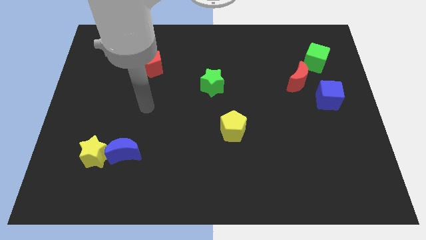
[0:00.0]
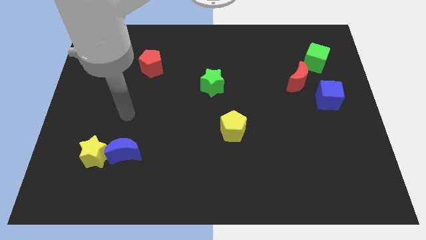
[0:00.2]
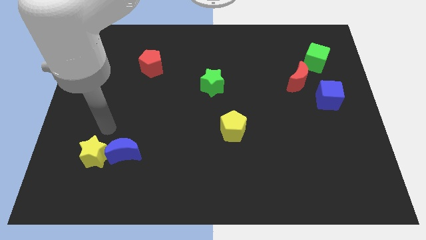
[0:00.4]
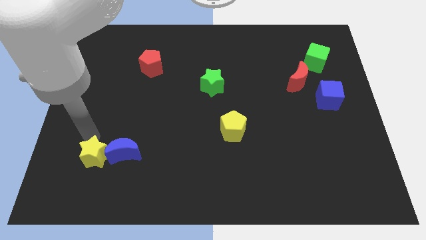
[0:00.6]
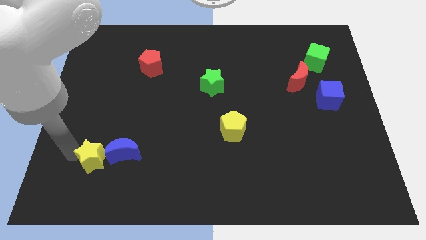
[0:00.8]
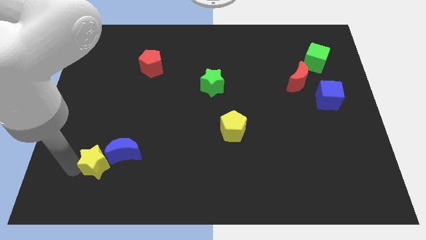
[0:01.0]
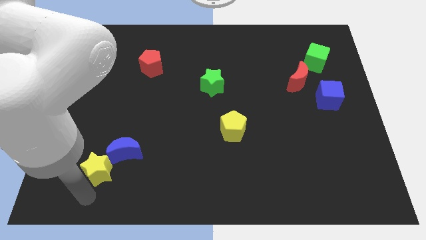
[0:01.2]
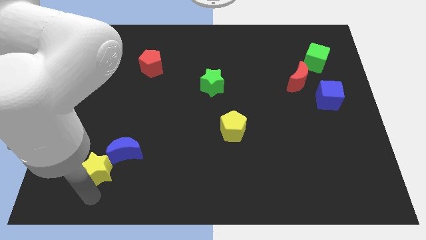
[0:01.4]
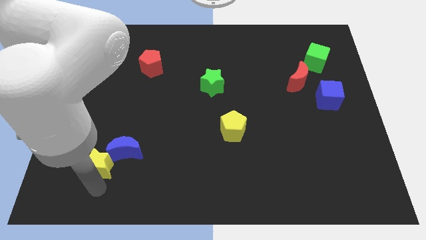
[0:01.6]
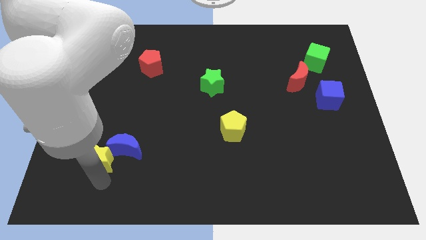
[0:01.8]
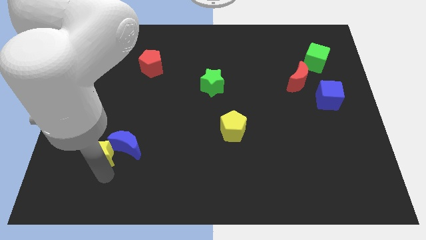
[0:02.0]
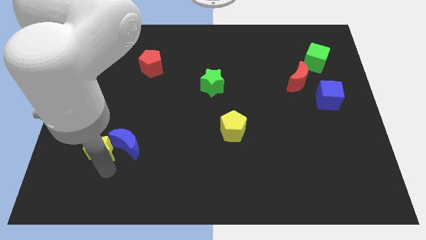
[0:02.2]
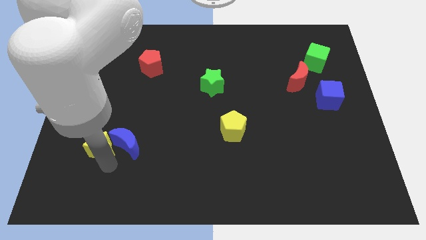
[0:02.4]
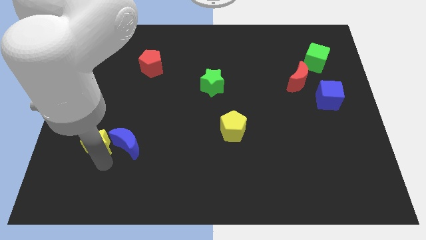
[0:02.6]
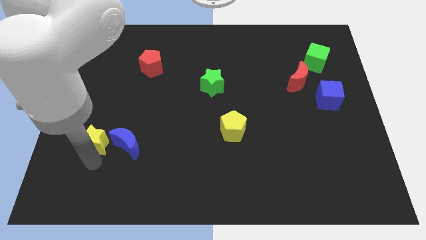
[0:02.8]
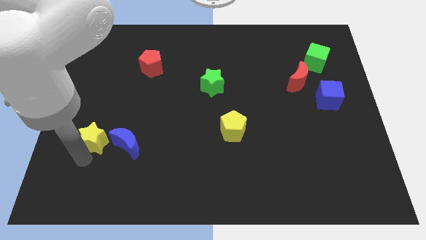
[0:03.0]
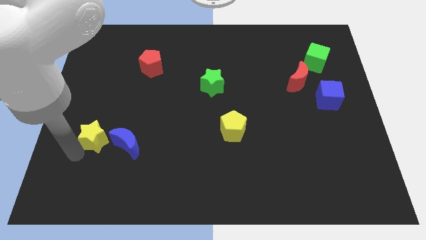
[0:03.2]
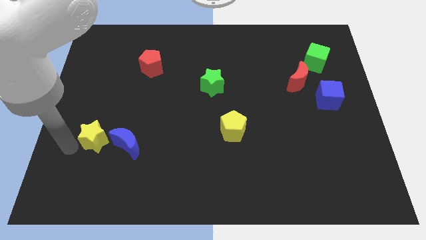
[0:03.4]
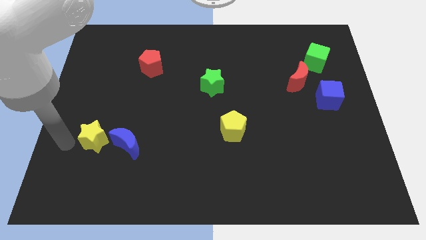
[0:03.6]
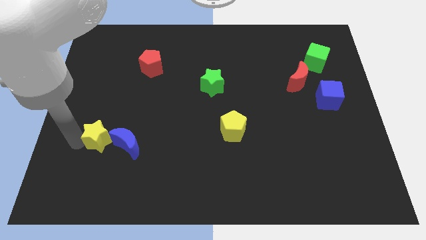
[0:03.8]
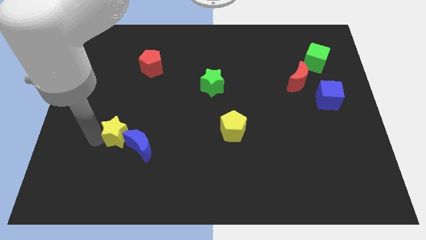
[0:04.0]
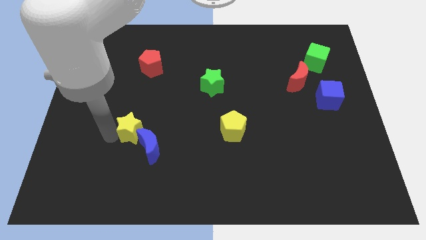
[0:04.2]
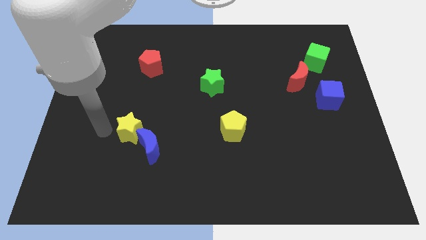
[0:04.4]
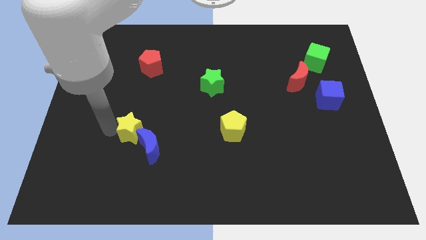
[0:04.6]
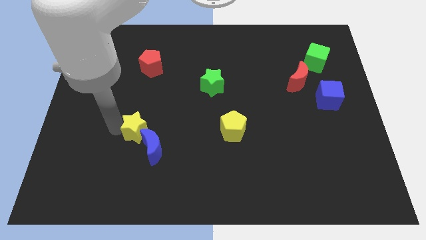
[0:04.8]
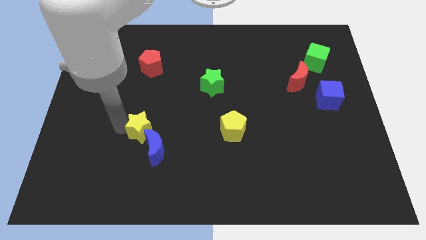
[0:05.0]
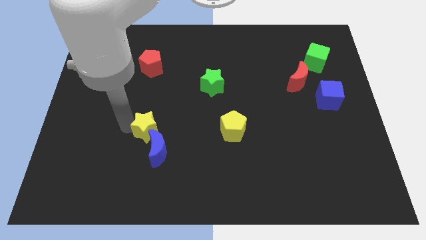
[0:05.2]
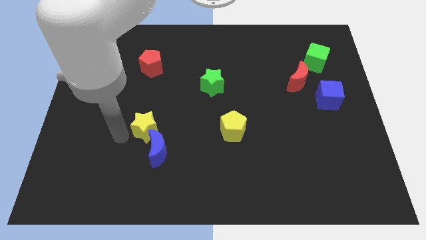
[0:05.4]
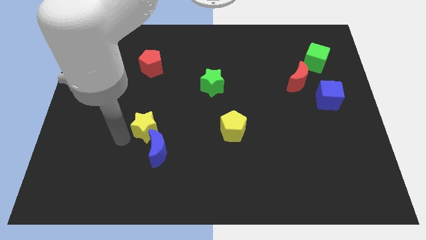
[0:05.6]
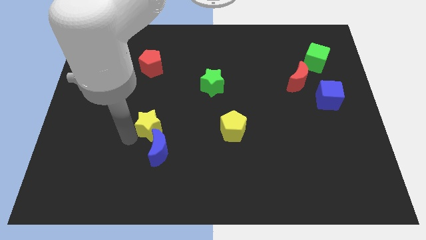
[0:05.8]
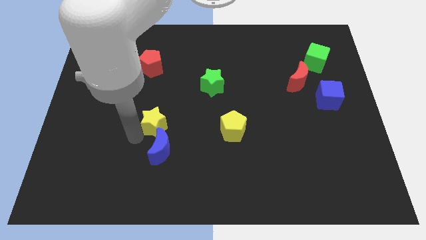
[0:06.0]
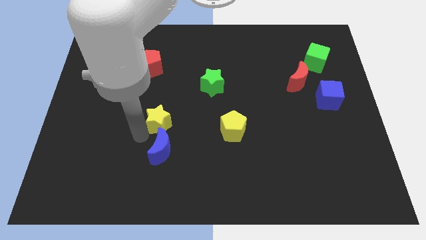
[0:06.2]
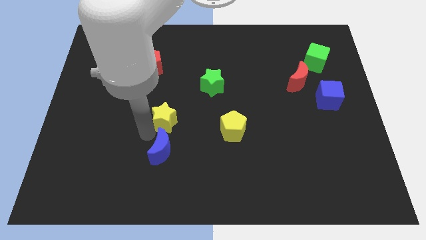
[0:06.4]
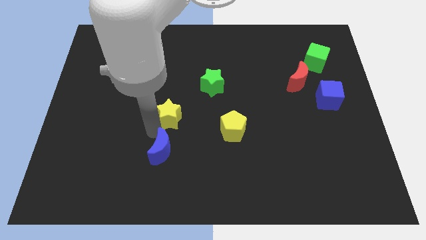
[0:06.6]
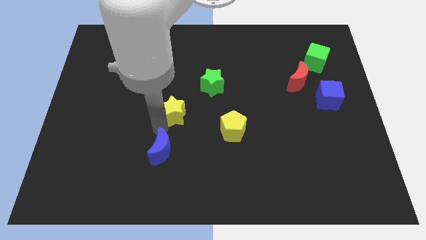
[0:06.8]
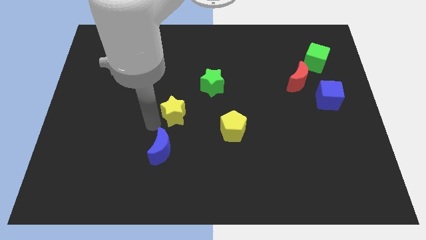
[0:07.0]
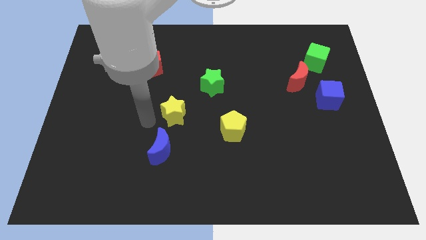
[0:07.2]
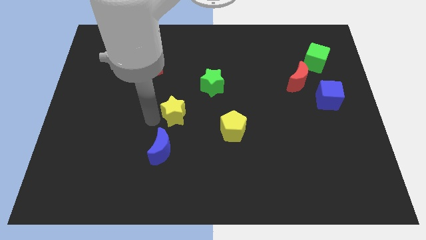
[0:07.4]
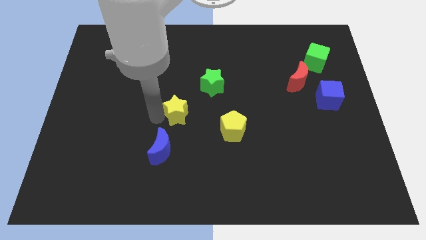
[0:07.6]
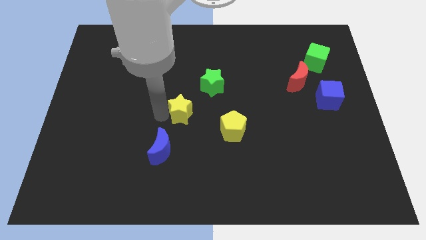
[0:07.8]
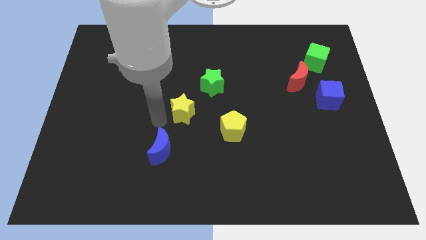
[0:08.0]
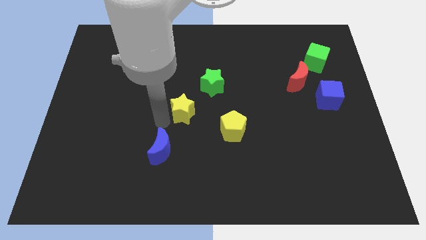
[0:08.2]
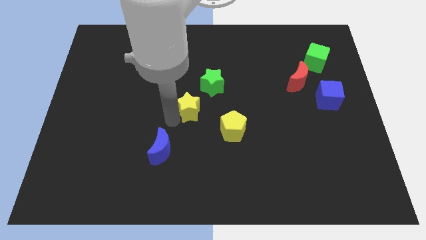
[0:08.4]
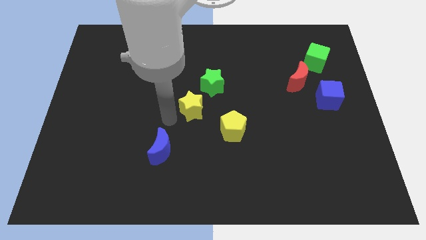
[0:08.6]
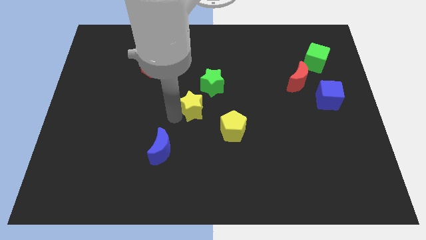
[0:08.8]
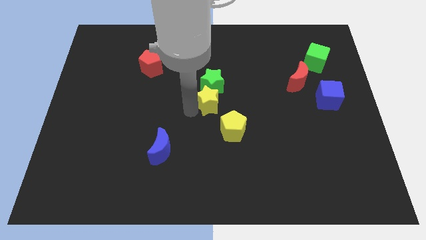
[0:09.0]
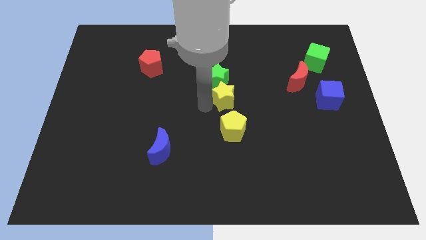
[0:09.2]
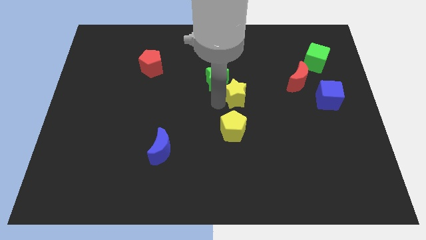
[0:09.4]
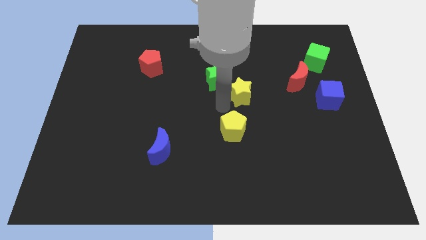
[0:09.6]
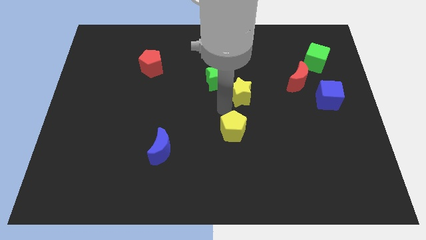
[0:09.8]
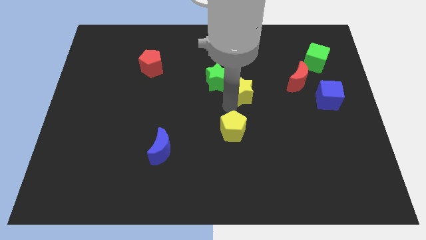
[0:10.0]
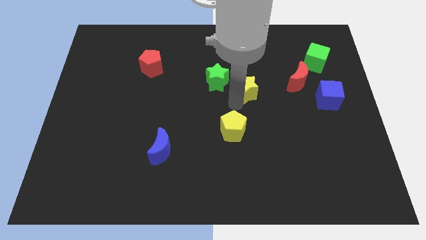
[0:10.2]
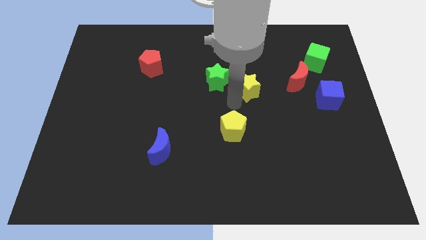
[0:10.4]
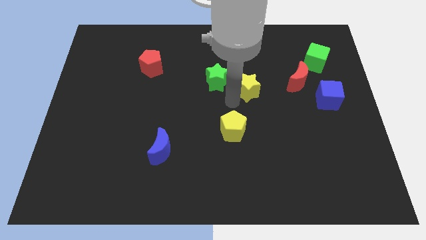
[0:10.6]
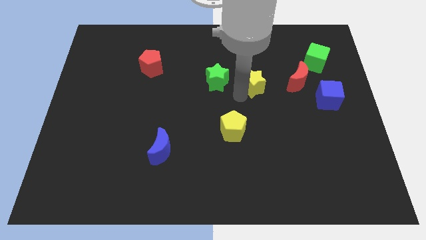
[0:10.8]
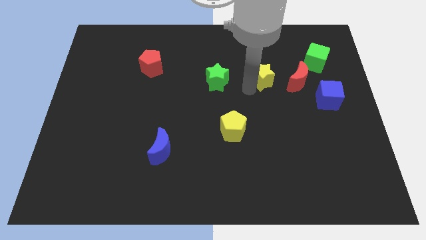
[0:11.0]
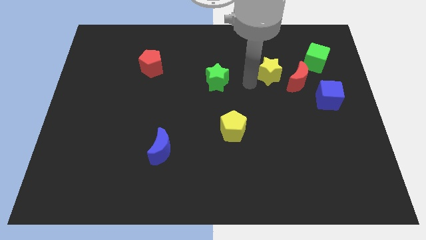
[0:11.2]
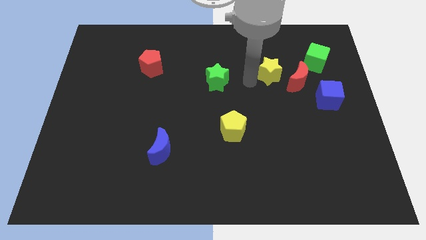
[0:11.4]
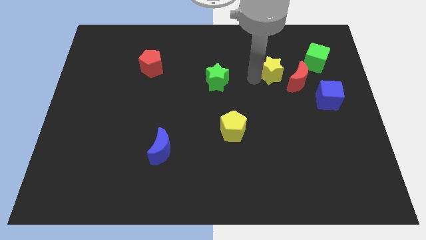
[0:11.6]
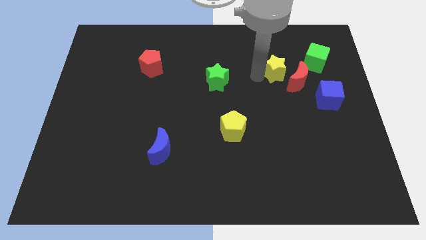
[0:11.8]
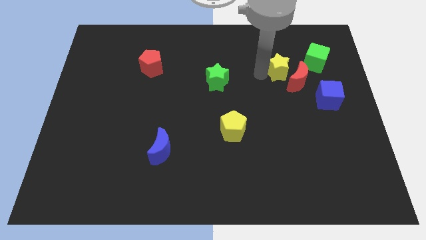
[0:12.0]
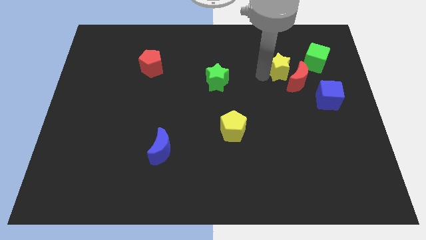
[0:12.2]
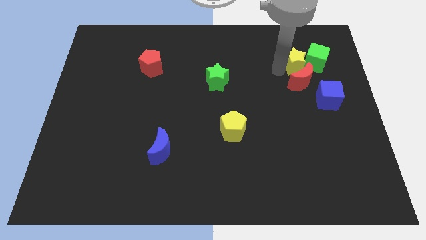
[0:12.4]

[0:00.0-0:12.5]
push the yellow star next to the green cube

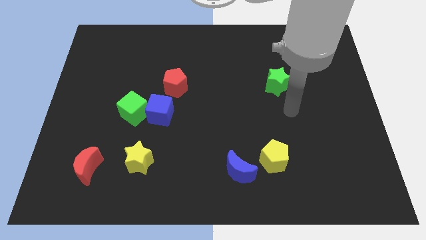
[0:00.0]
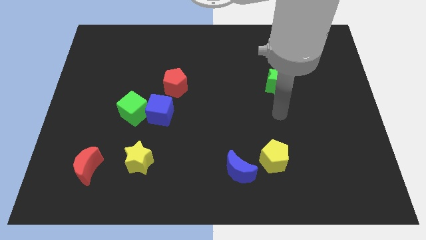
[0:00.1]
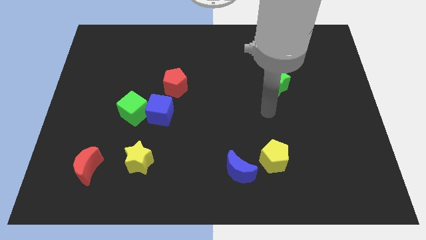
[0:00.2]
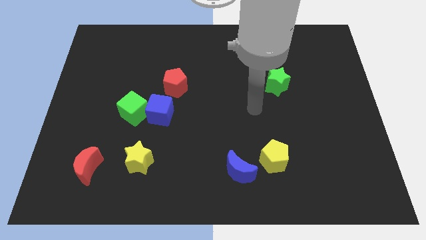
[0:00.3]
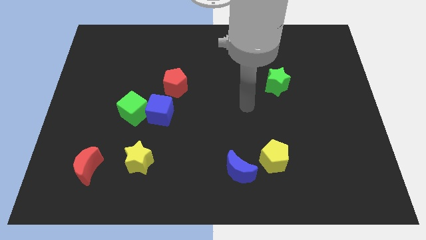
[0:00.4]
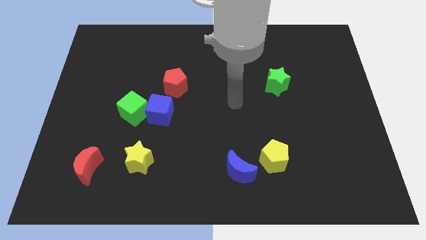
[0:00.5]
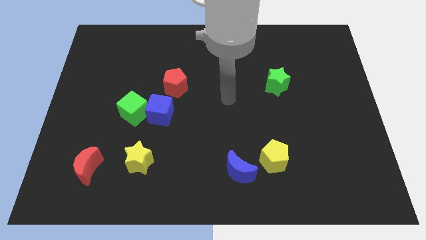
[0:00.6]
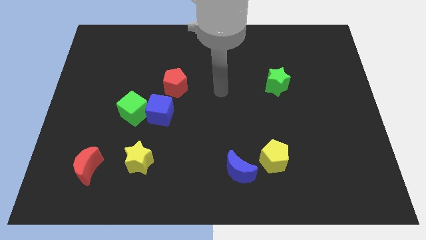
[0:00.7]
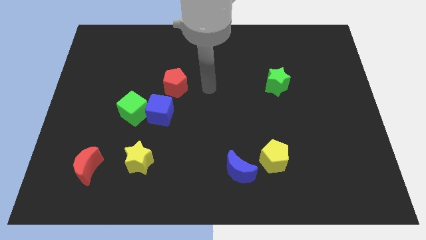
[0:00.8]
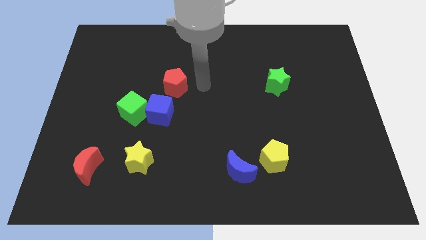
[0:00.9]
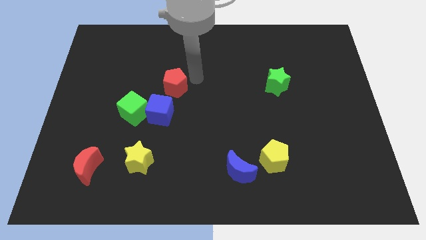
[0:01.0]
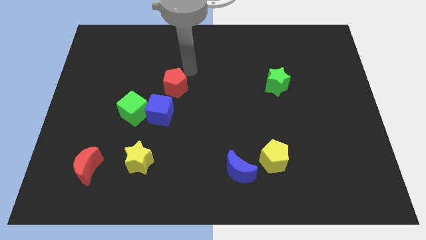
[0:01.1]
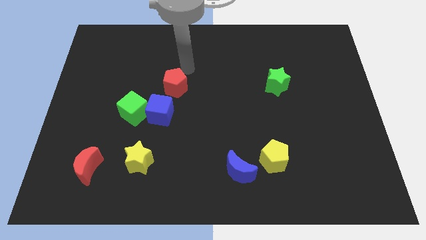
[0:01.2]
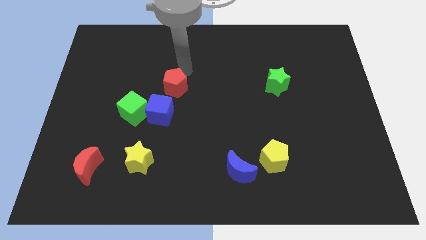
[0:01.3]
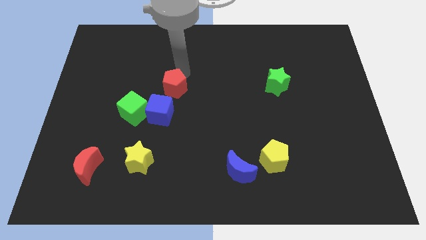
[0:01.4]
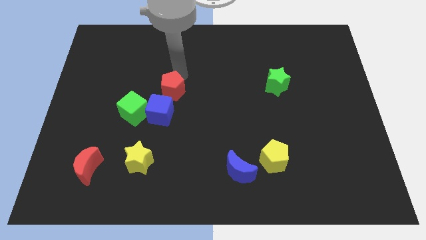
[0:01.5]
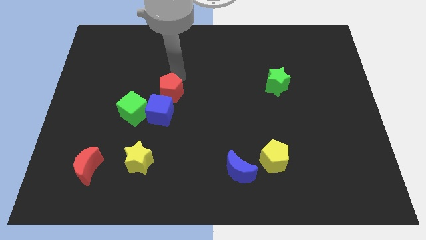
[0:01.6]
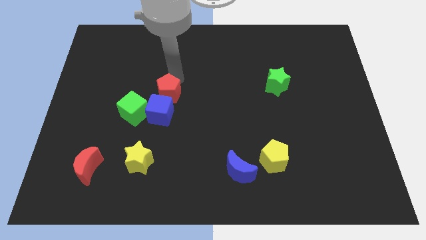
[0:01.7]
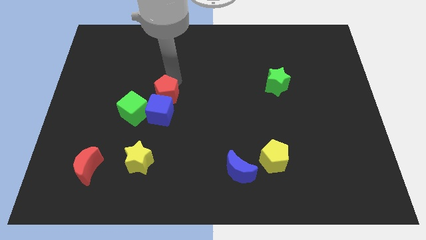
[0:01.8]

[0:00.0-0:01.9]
slide the red pentagon next to the blue cube
